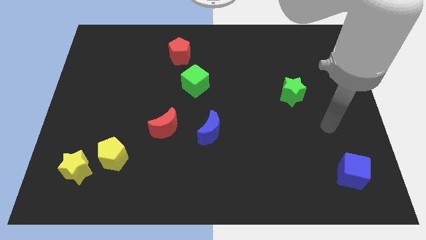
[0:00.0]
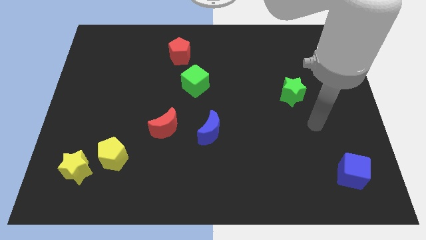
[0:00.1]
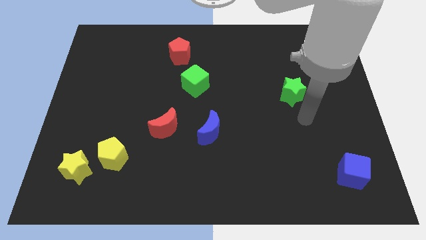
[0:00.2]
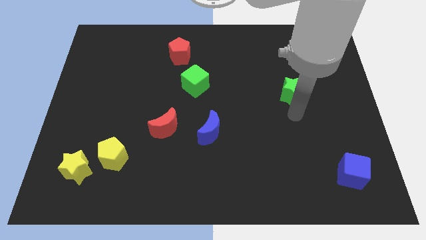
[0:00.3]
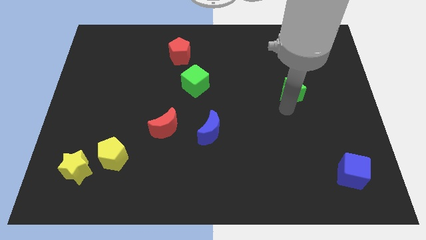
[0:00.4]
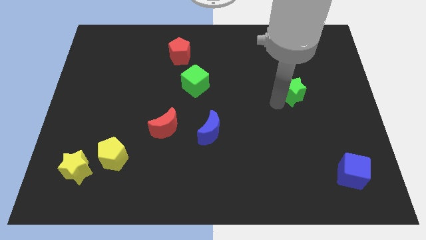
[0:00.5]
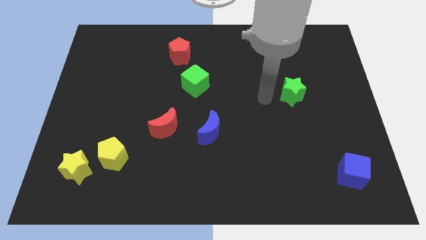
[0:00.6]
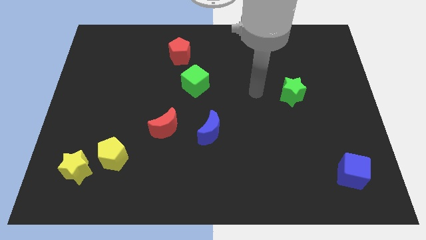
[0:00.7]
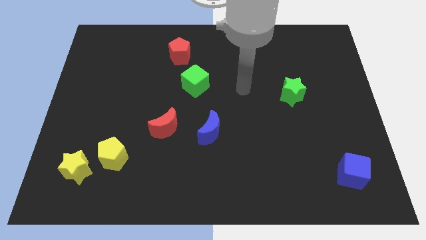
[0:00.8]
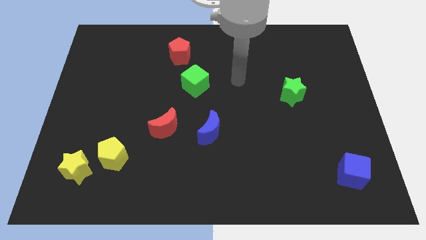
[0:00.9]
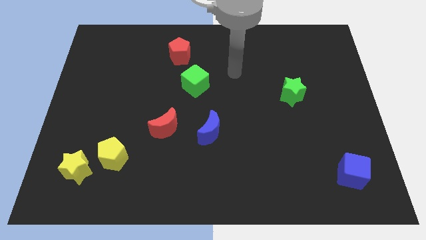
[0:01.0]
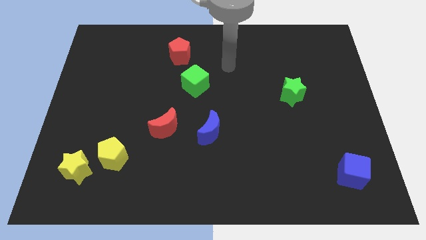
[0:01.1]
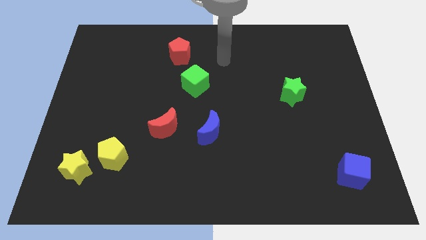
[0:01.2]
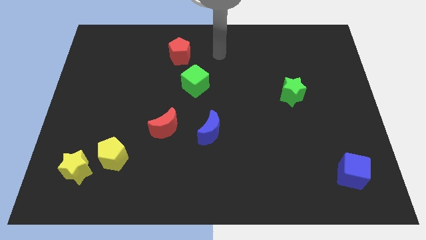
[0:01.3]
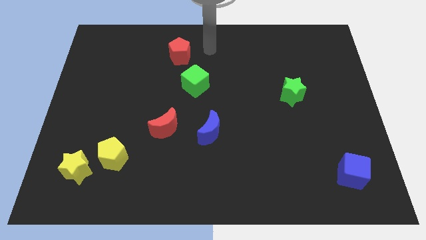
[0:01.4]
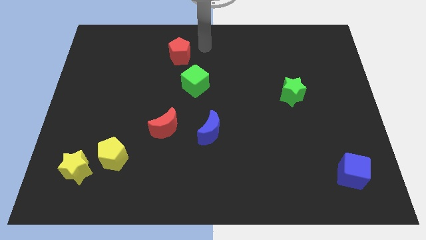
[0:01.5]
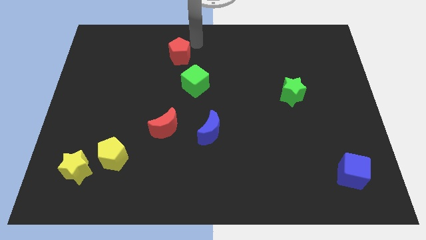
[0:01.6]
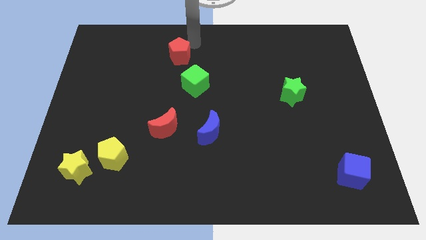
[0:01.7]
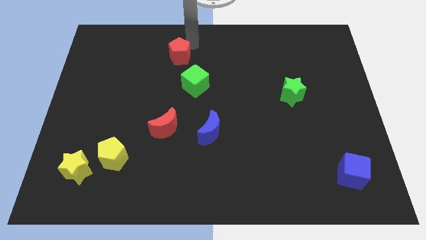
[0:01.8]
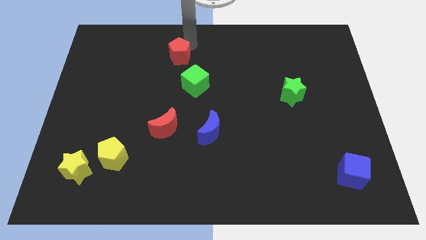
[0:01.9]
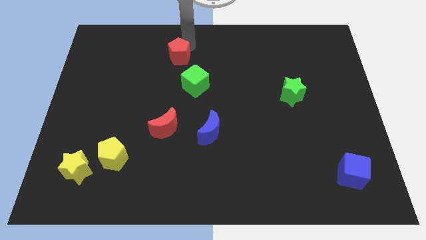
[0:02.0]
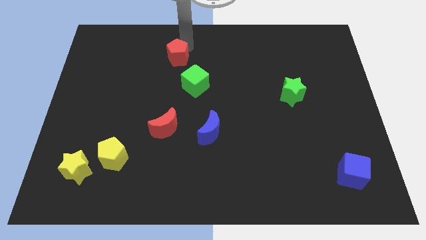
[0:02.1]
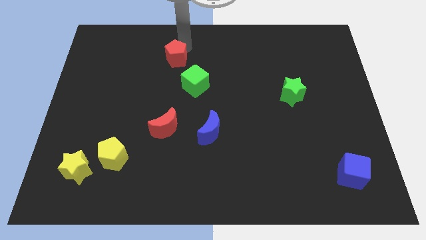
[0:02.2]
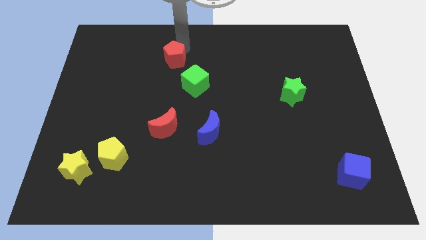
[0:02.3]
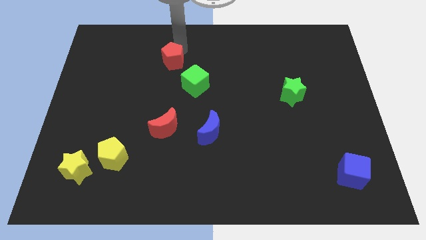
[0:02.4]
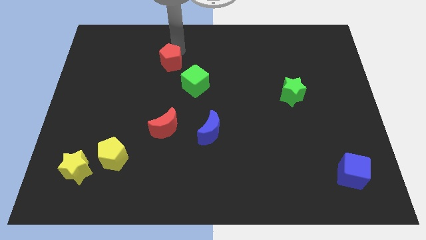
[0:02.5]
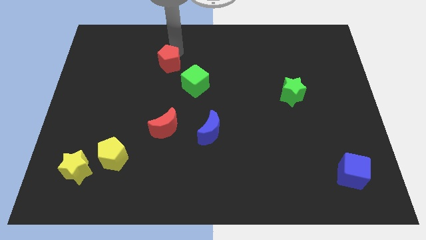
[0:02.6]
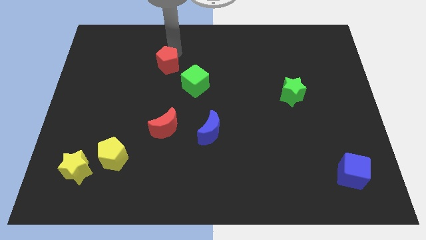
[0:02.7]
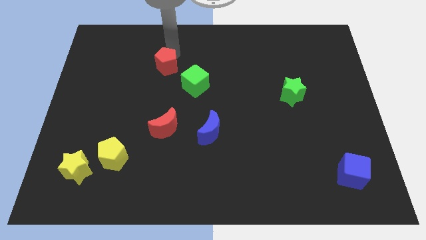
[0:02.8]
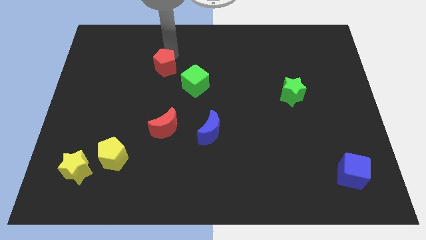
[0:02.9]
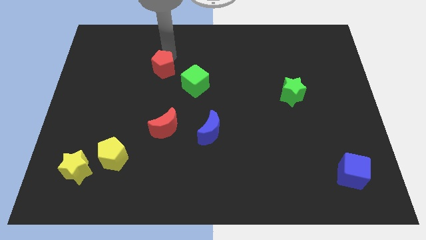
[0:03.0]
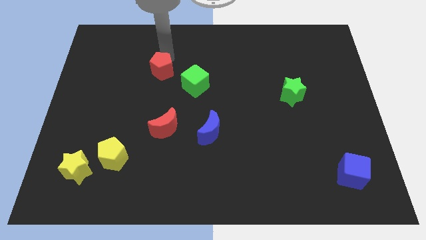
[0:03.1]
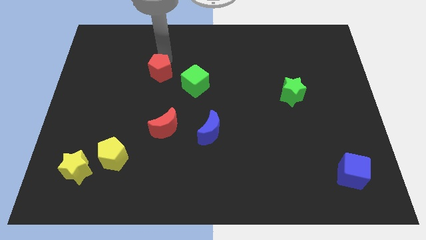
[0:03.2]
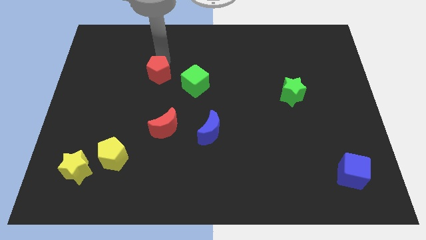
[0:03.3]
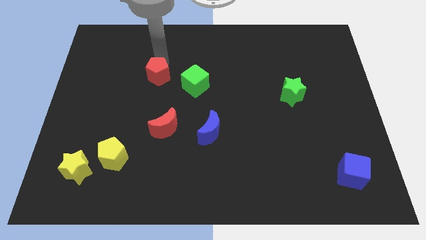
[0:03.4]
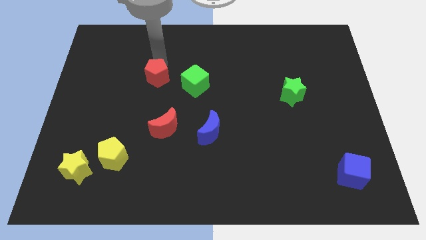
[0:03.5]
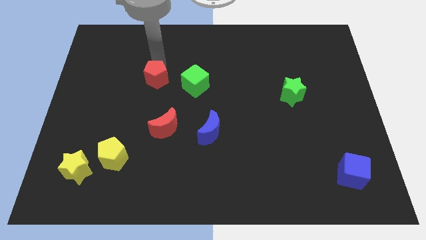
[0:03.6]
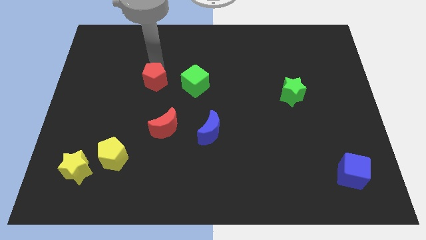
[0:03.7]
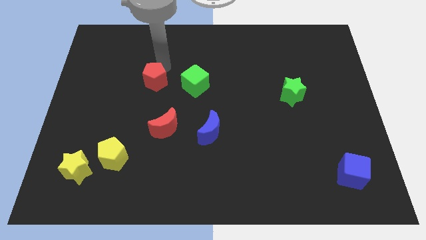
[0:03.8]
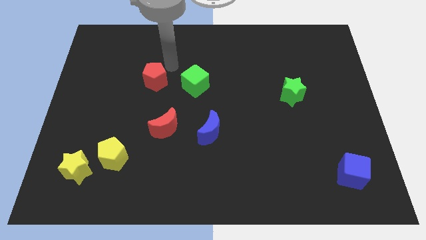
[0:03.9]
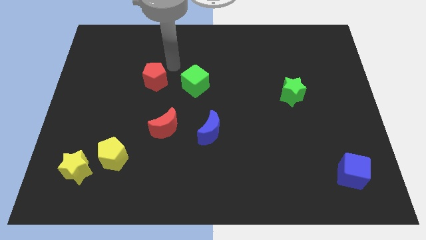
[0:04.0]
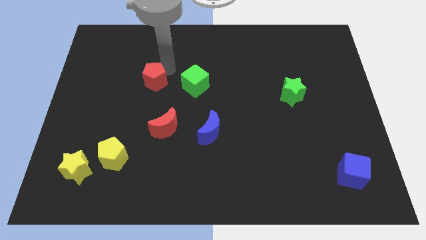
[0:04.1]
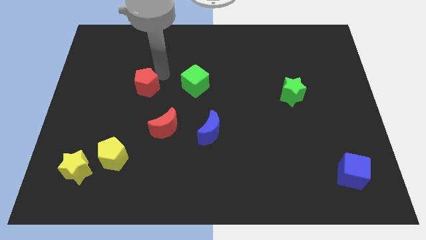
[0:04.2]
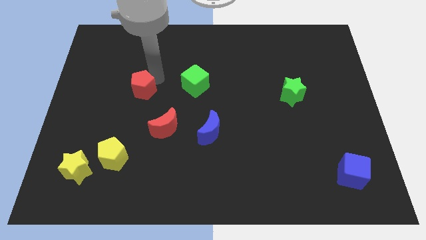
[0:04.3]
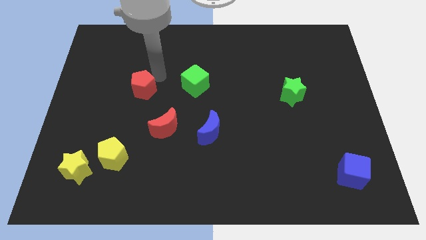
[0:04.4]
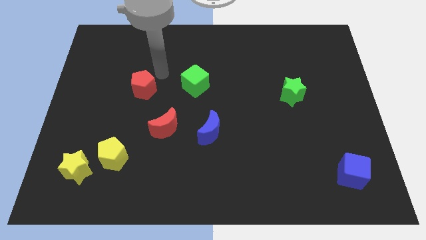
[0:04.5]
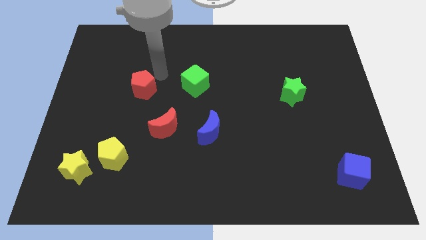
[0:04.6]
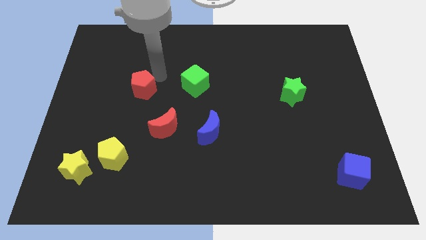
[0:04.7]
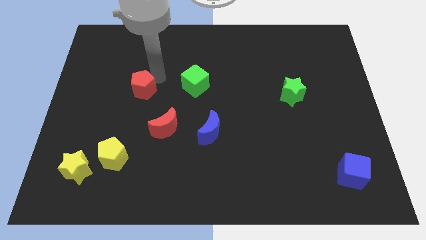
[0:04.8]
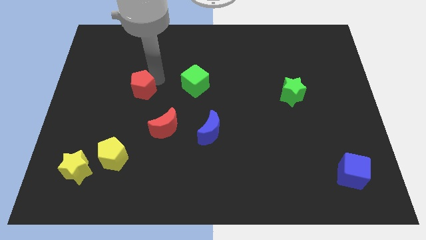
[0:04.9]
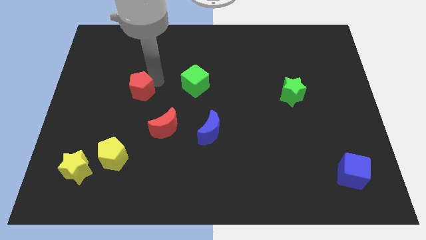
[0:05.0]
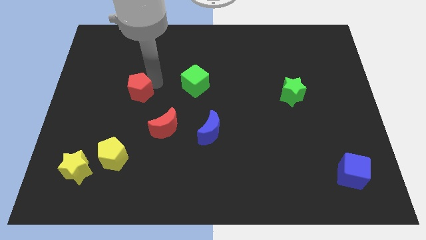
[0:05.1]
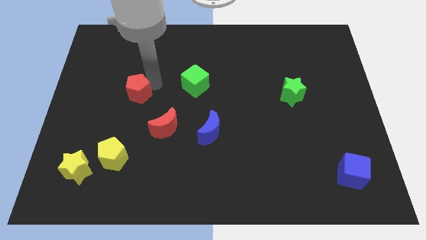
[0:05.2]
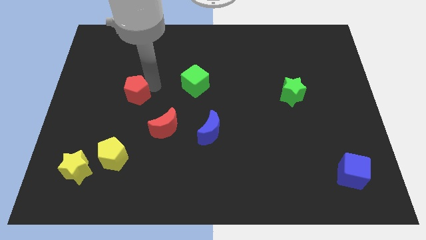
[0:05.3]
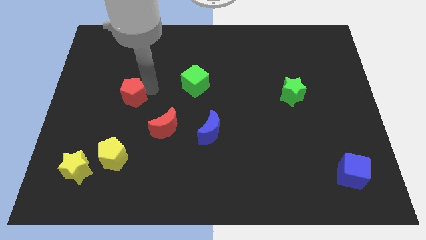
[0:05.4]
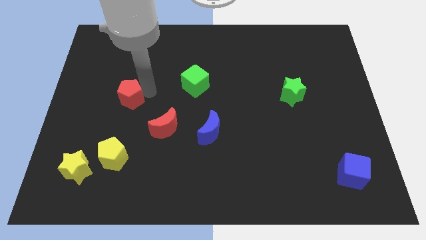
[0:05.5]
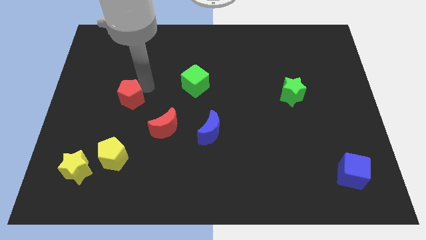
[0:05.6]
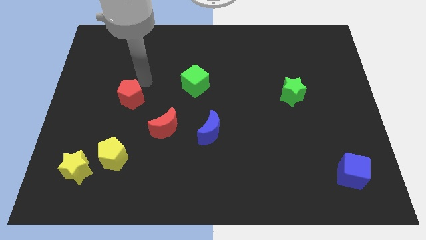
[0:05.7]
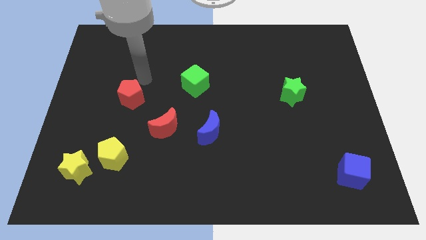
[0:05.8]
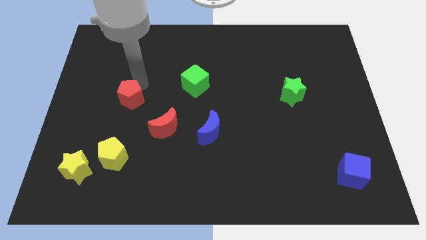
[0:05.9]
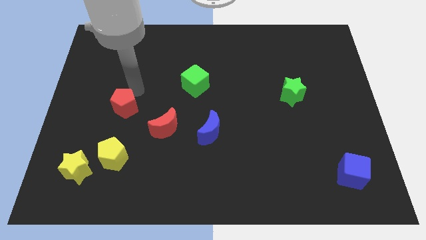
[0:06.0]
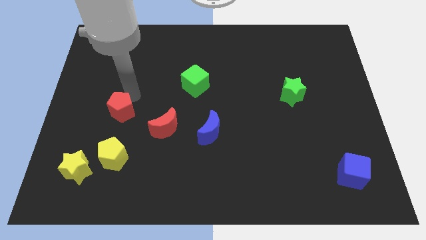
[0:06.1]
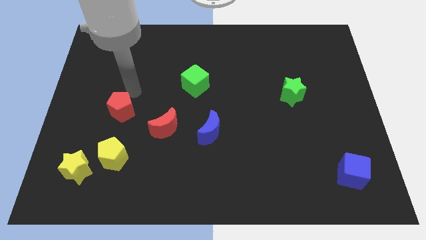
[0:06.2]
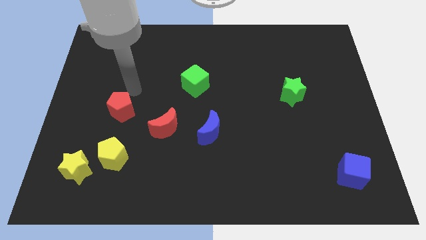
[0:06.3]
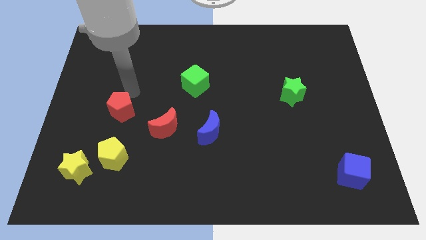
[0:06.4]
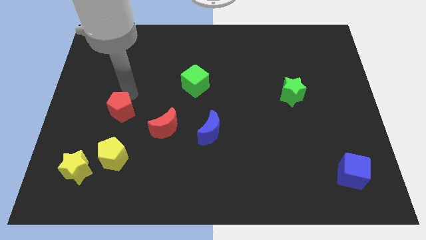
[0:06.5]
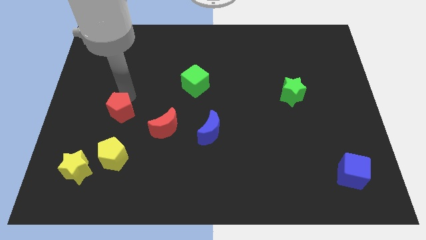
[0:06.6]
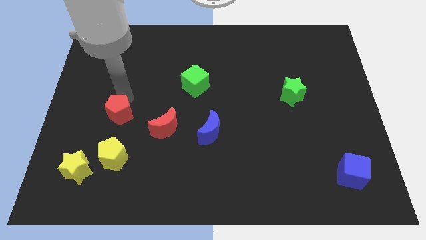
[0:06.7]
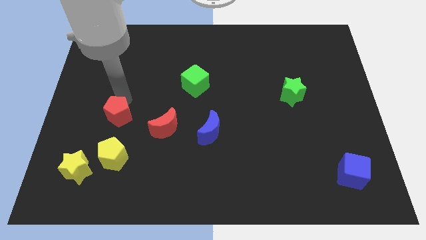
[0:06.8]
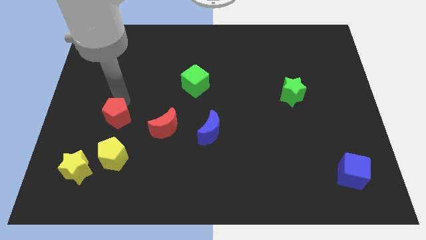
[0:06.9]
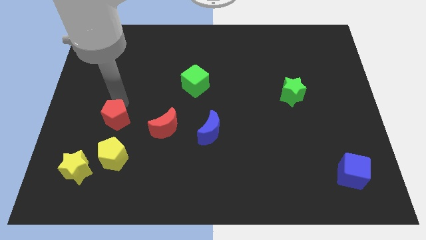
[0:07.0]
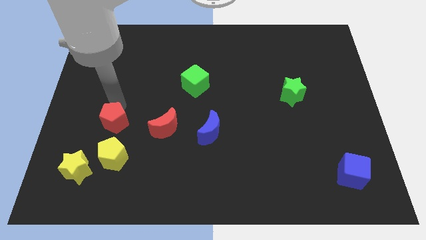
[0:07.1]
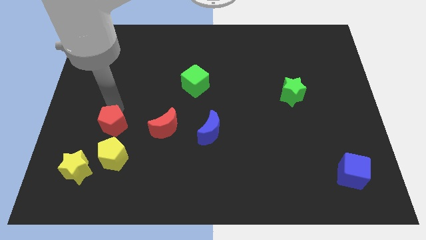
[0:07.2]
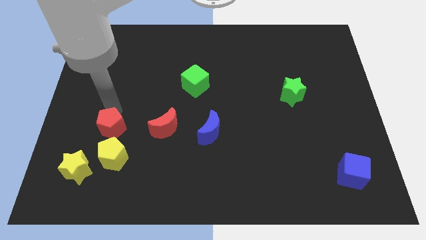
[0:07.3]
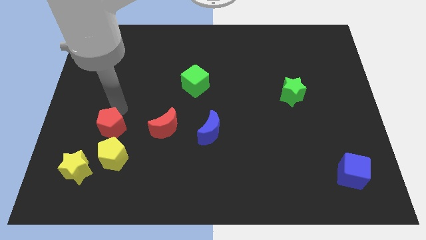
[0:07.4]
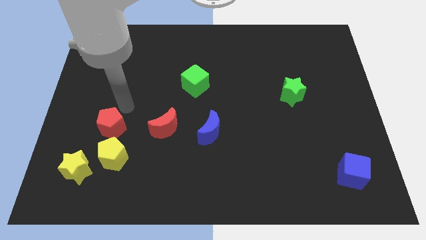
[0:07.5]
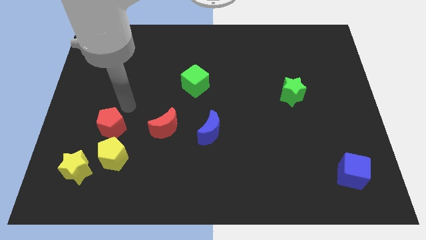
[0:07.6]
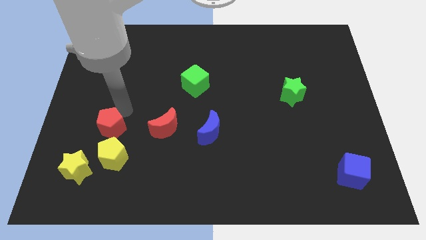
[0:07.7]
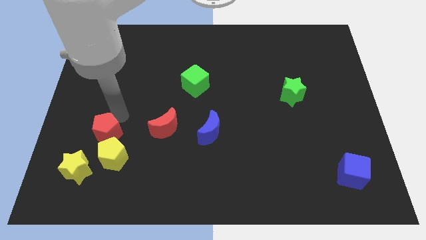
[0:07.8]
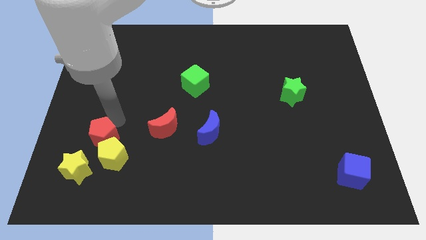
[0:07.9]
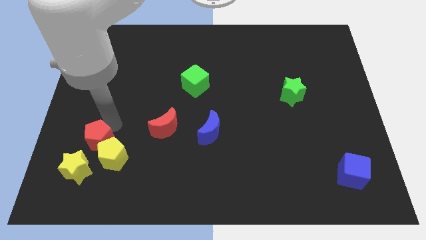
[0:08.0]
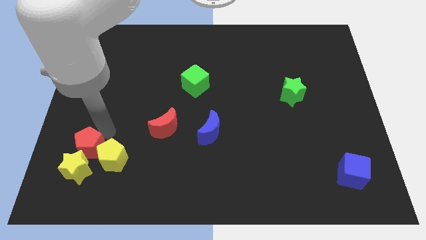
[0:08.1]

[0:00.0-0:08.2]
push the red pentagon towards the yellow star
